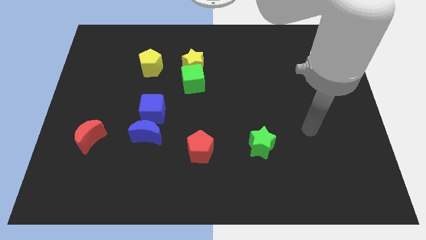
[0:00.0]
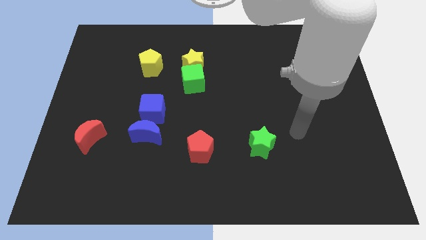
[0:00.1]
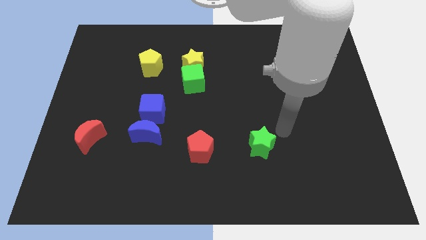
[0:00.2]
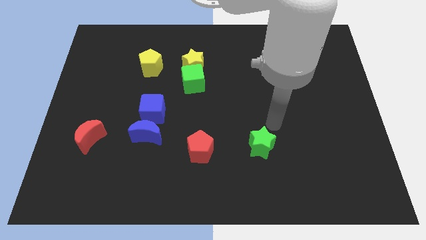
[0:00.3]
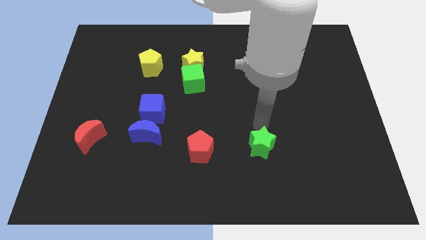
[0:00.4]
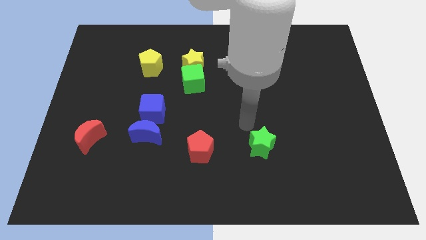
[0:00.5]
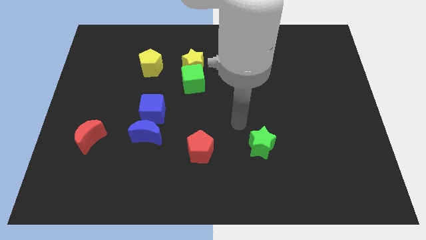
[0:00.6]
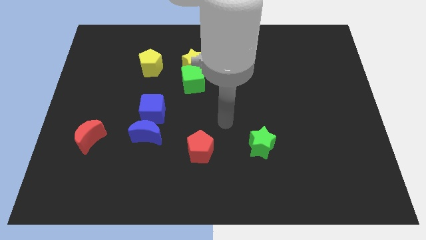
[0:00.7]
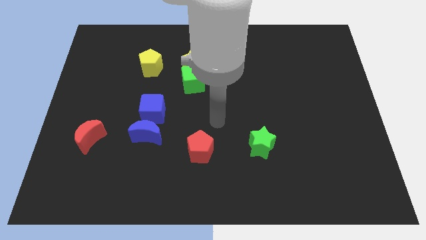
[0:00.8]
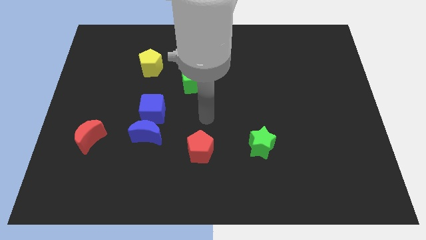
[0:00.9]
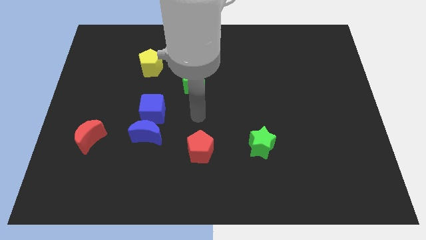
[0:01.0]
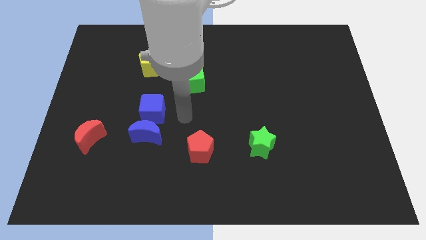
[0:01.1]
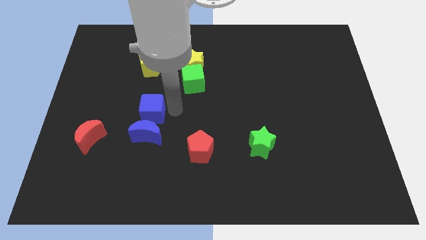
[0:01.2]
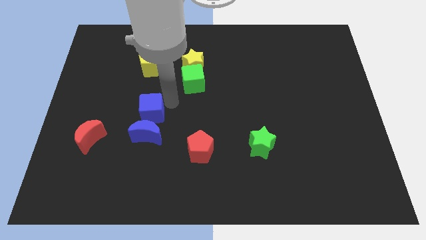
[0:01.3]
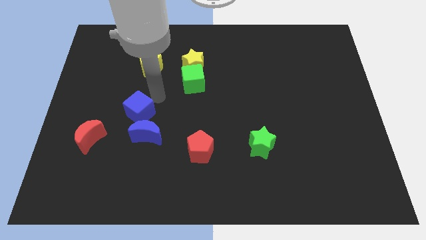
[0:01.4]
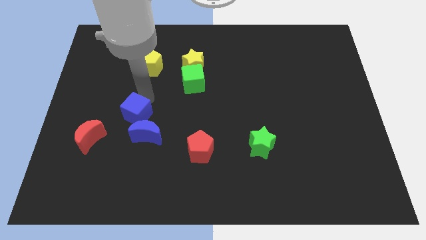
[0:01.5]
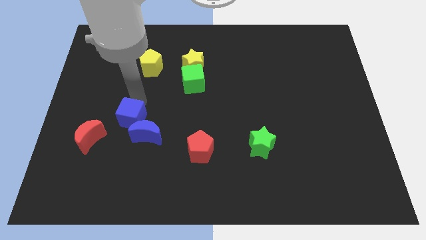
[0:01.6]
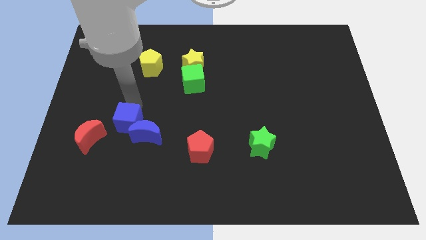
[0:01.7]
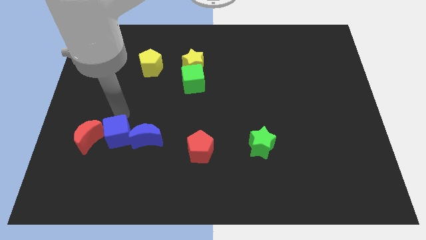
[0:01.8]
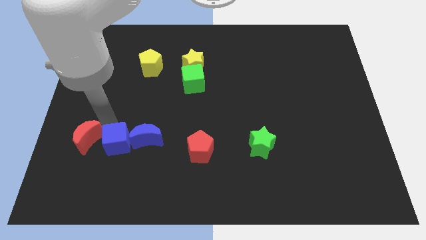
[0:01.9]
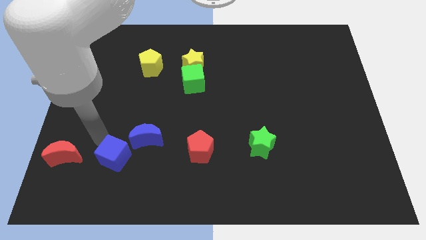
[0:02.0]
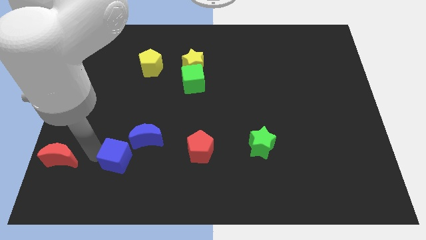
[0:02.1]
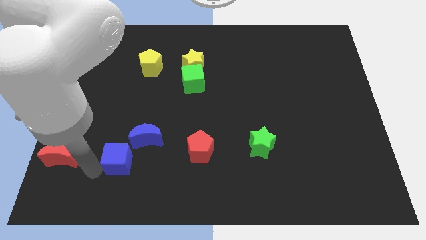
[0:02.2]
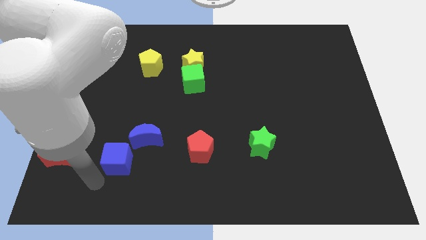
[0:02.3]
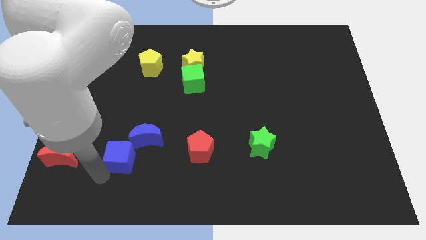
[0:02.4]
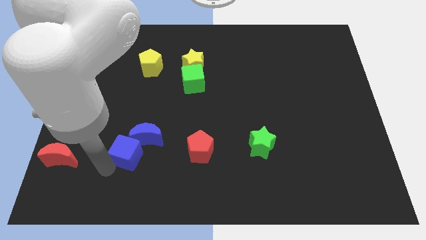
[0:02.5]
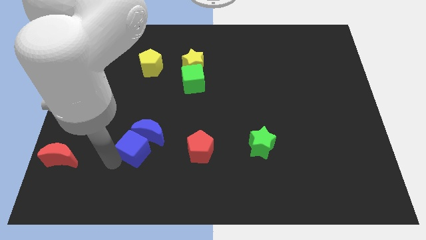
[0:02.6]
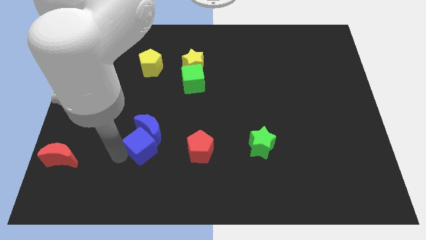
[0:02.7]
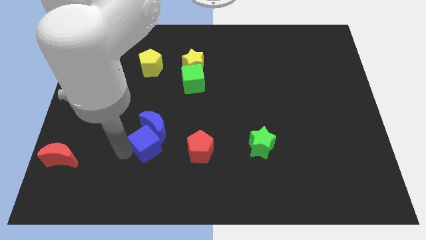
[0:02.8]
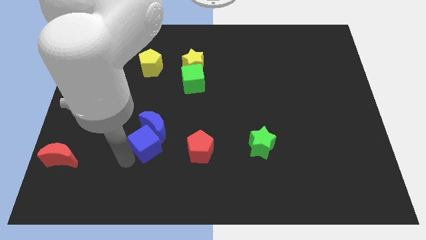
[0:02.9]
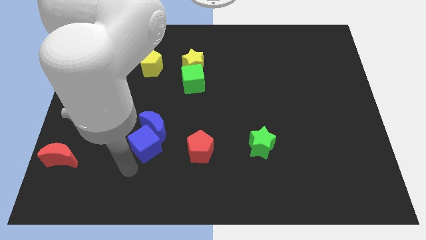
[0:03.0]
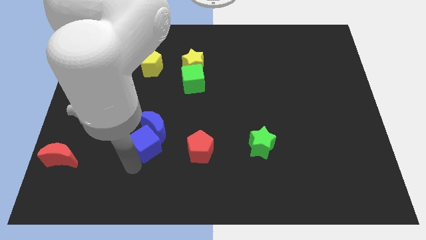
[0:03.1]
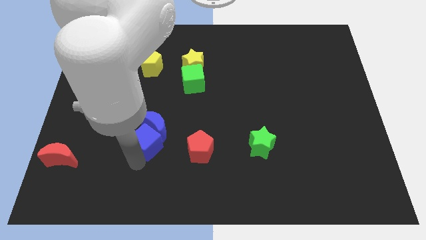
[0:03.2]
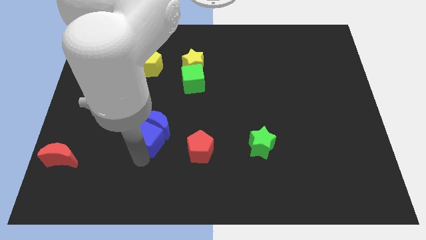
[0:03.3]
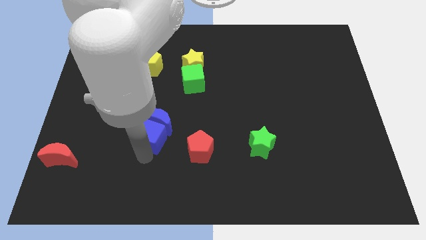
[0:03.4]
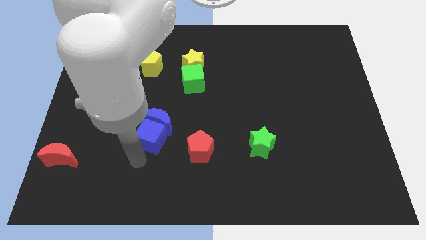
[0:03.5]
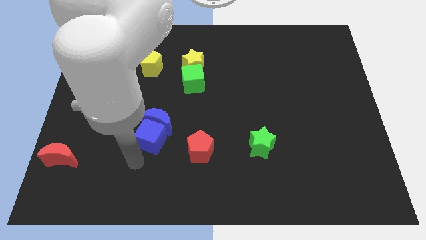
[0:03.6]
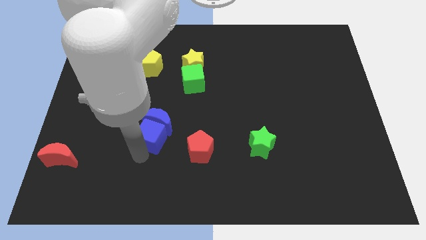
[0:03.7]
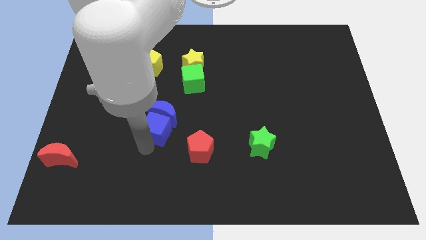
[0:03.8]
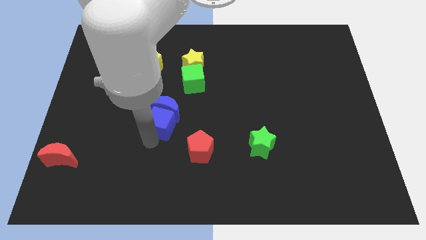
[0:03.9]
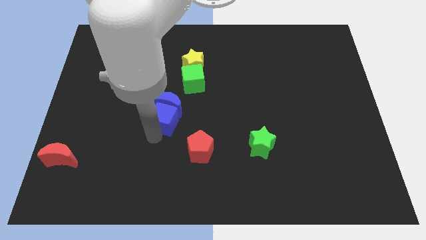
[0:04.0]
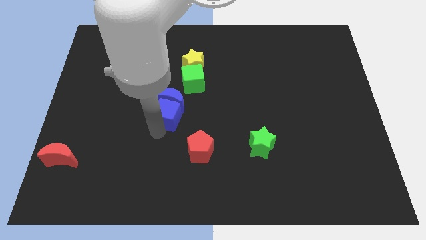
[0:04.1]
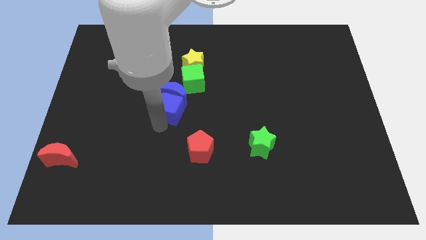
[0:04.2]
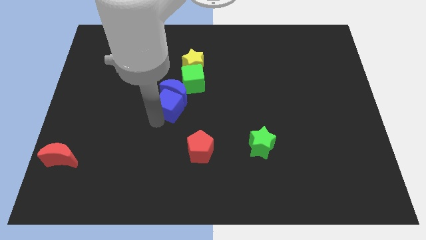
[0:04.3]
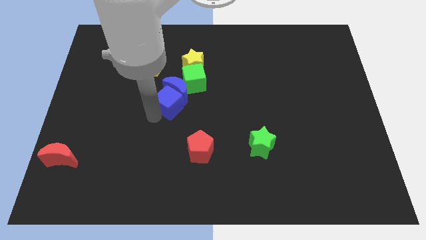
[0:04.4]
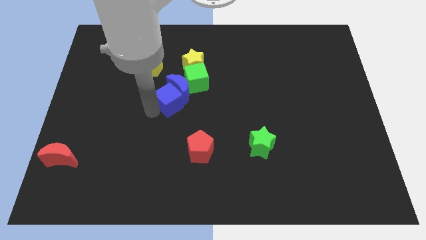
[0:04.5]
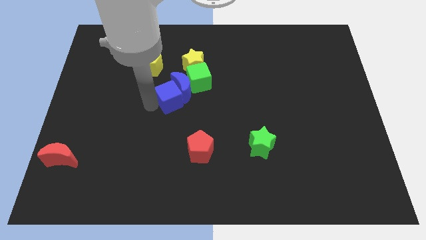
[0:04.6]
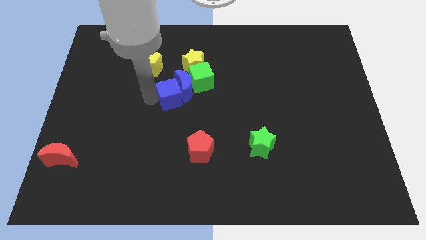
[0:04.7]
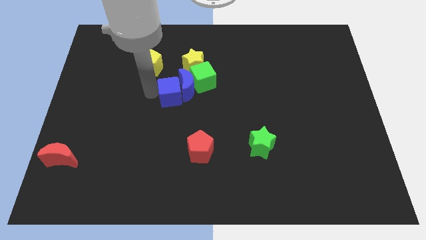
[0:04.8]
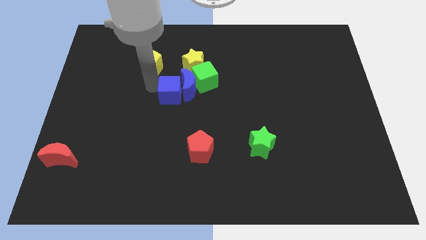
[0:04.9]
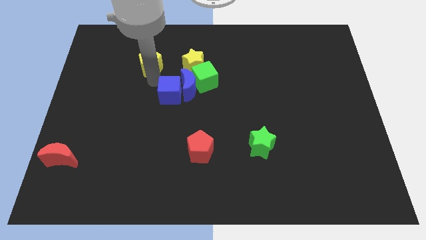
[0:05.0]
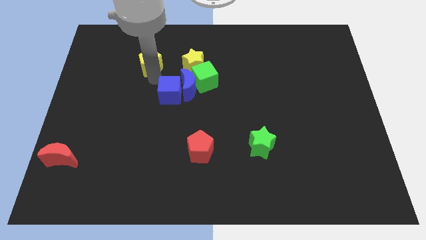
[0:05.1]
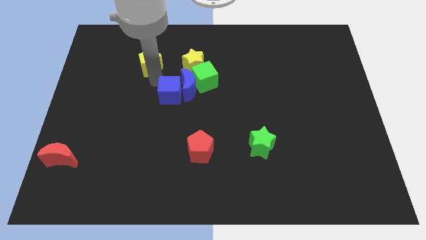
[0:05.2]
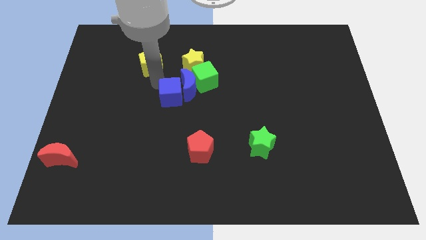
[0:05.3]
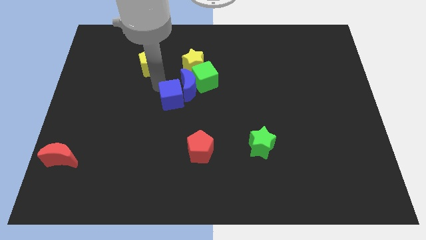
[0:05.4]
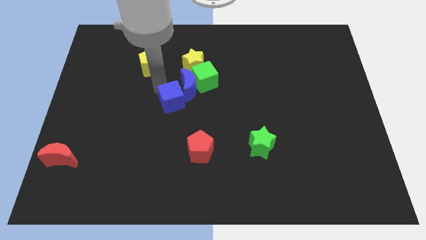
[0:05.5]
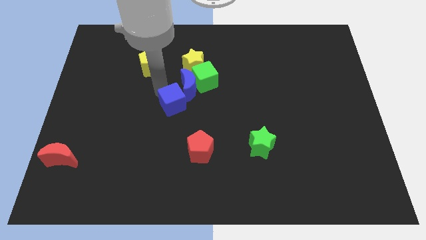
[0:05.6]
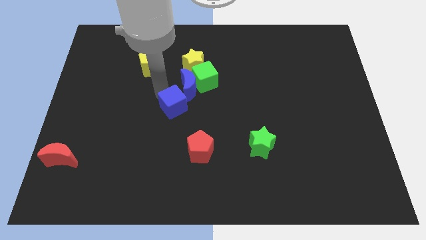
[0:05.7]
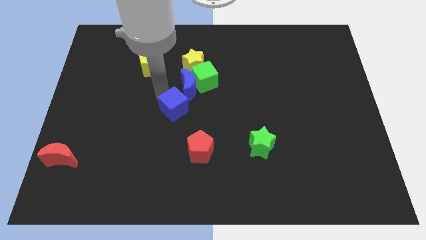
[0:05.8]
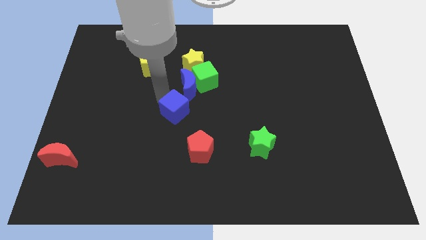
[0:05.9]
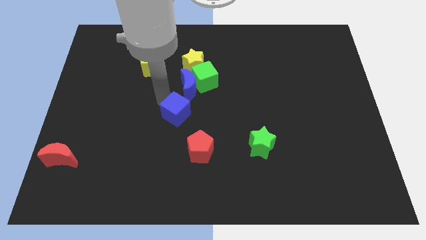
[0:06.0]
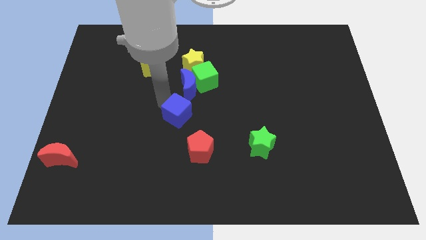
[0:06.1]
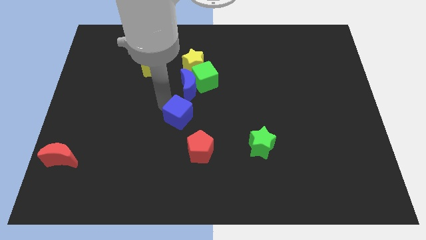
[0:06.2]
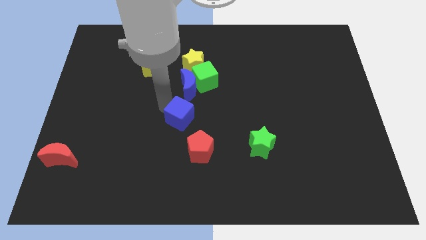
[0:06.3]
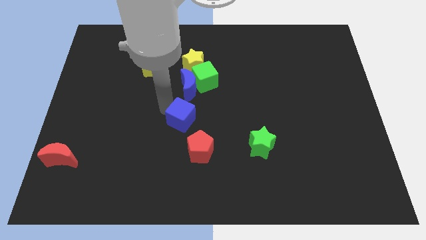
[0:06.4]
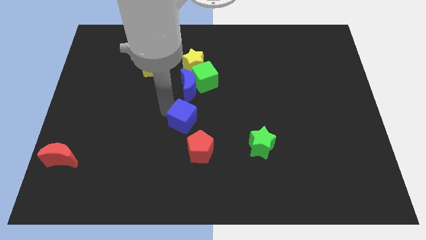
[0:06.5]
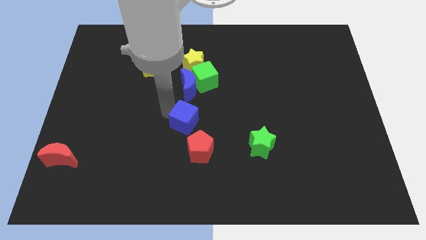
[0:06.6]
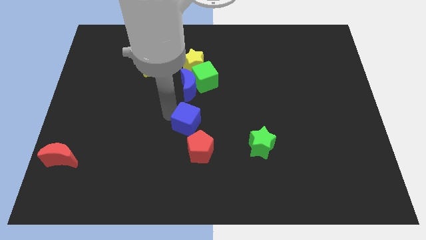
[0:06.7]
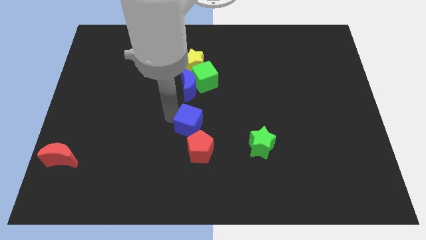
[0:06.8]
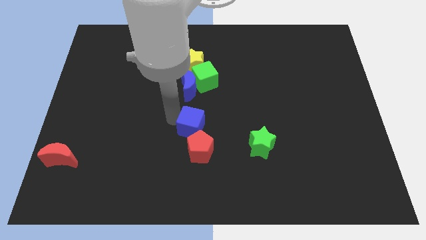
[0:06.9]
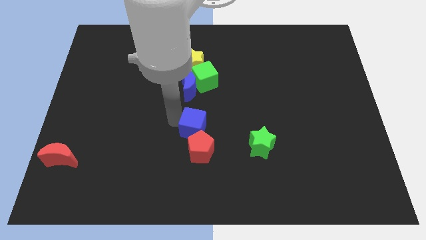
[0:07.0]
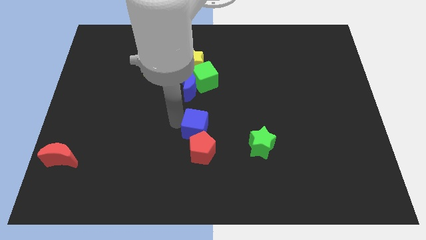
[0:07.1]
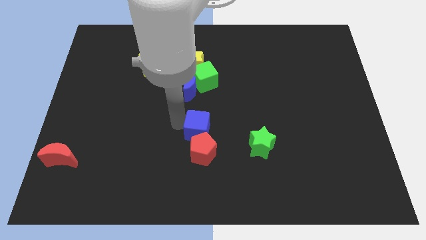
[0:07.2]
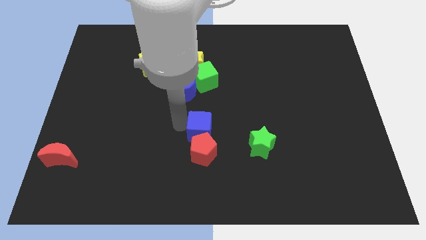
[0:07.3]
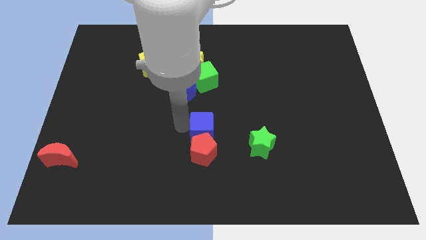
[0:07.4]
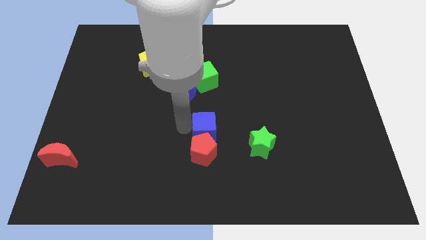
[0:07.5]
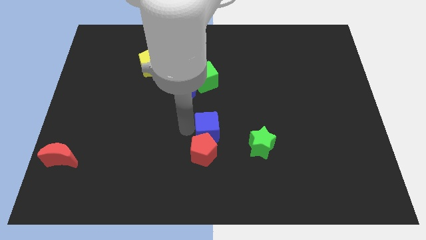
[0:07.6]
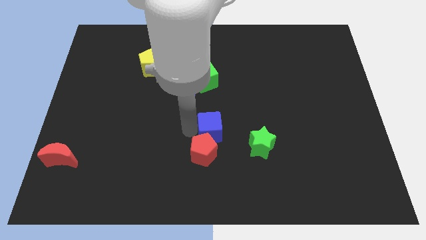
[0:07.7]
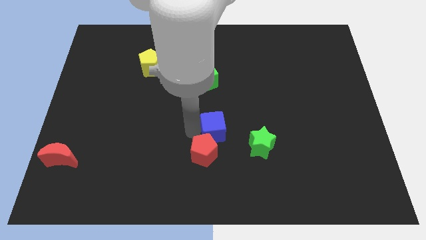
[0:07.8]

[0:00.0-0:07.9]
slide the blue cube to the top left side of the green star

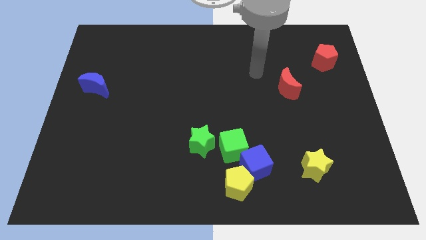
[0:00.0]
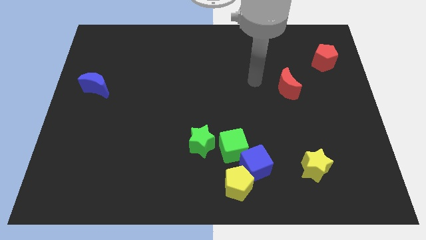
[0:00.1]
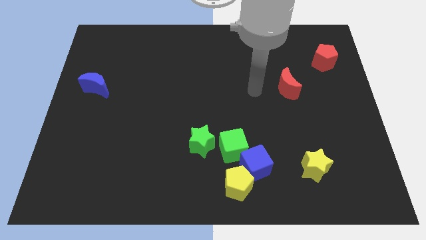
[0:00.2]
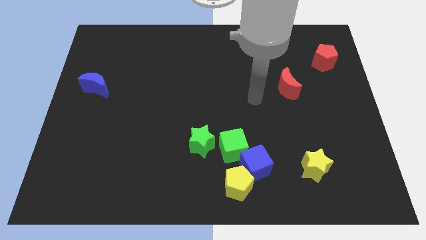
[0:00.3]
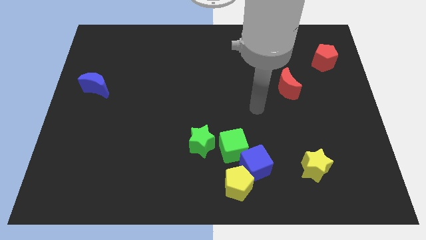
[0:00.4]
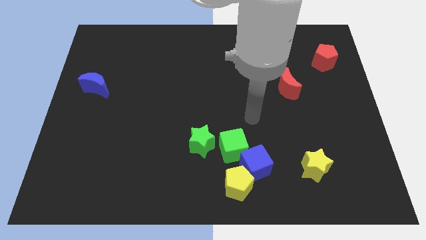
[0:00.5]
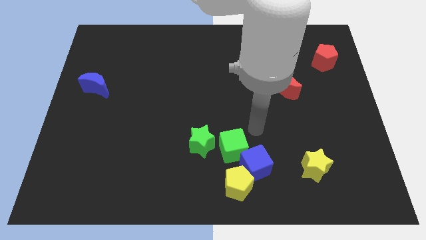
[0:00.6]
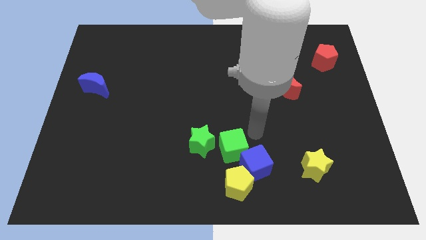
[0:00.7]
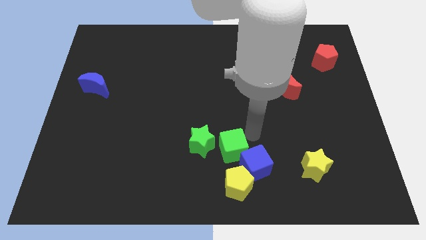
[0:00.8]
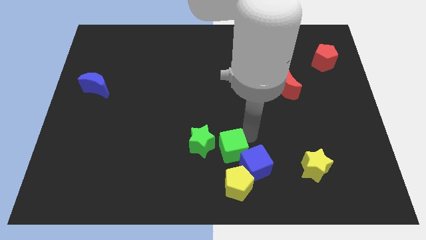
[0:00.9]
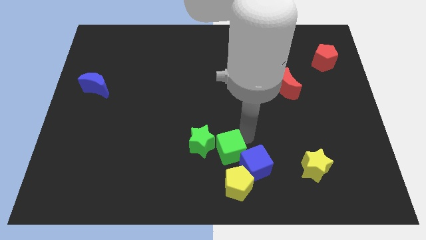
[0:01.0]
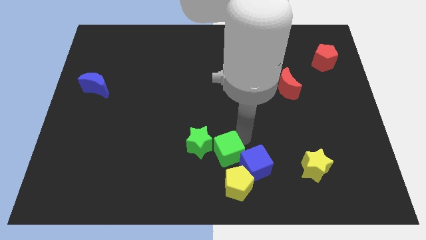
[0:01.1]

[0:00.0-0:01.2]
put the green cube to the top left of the yellow pentagon
